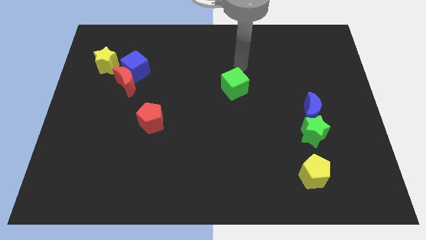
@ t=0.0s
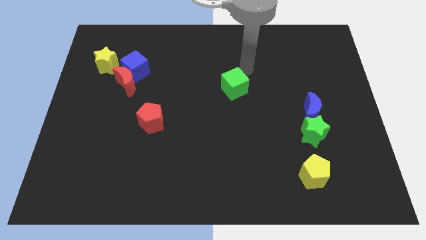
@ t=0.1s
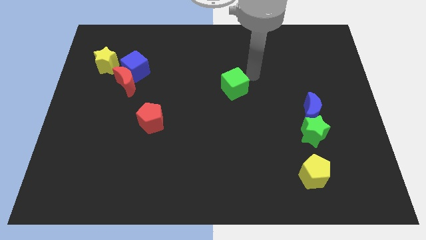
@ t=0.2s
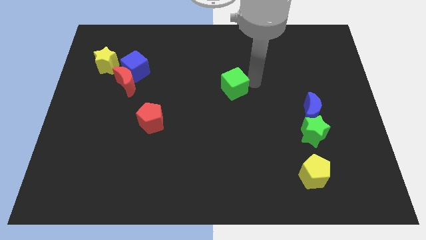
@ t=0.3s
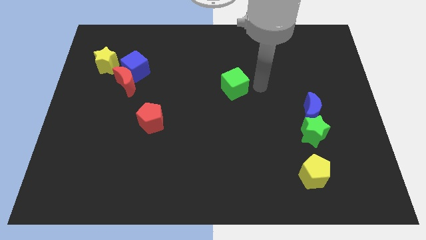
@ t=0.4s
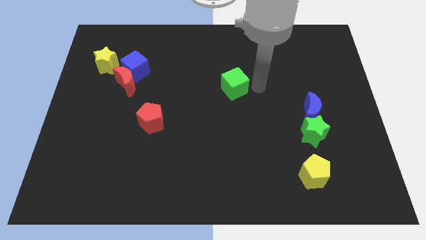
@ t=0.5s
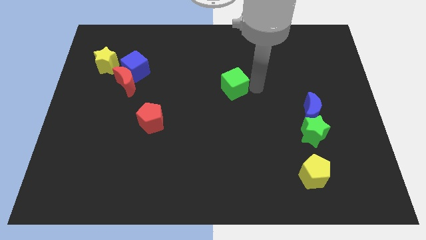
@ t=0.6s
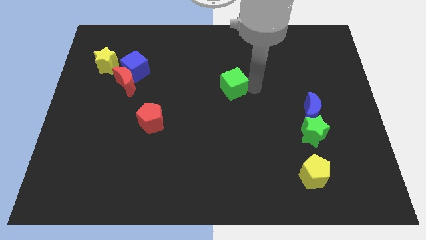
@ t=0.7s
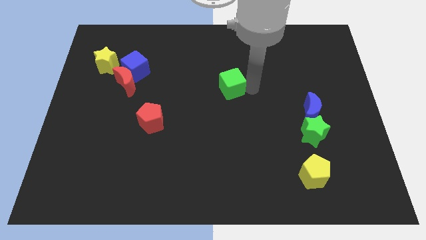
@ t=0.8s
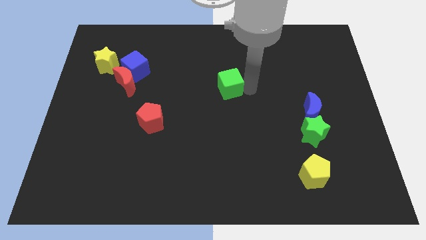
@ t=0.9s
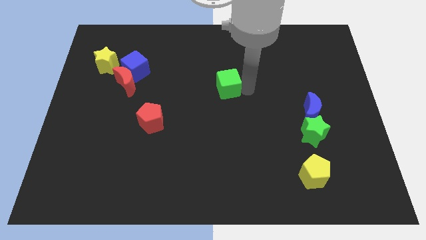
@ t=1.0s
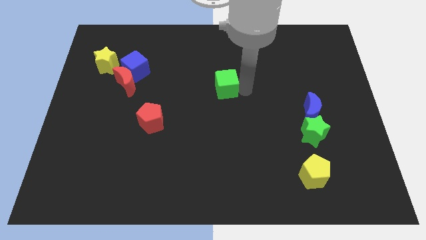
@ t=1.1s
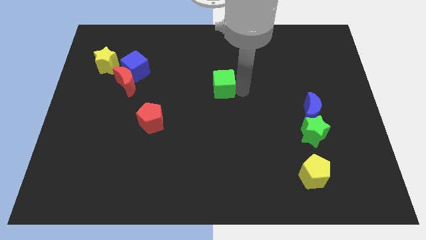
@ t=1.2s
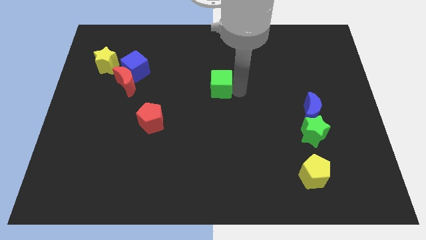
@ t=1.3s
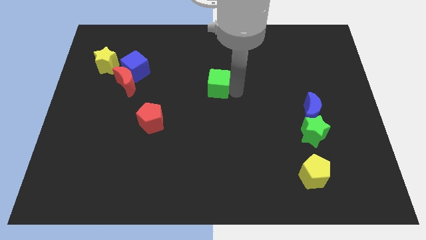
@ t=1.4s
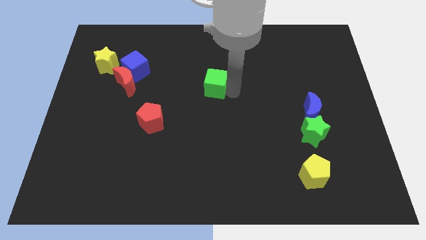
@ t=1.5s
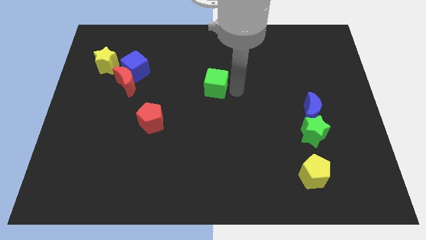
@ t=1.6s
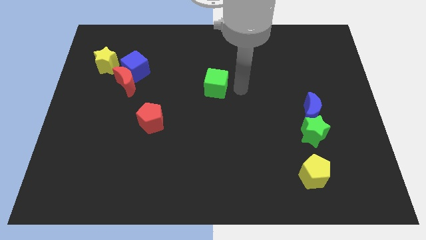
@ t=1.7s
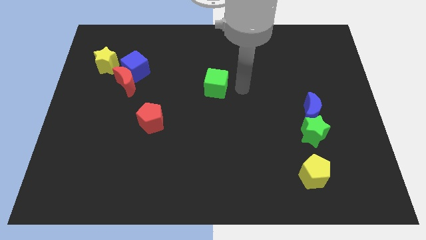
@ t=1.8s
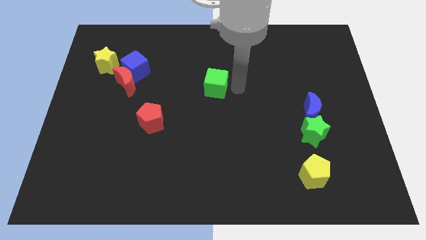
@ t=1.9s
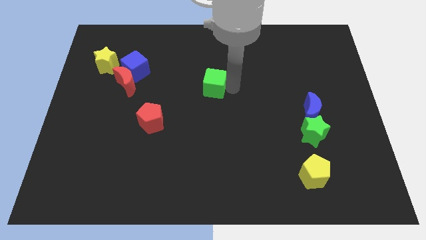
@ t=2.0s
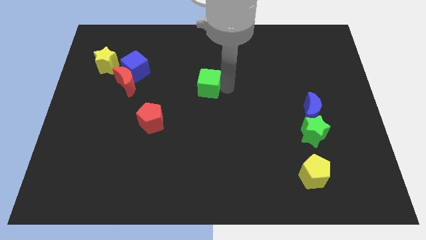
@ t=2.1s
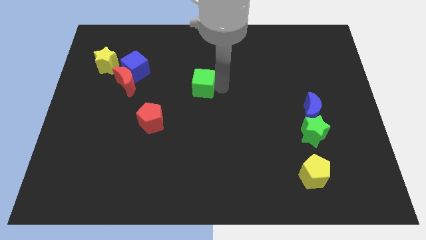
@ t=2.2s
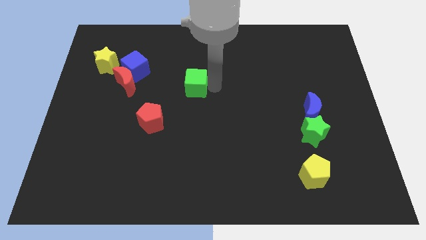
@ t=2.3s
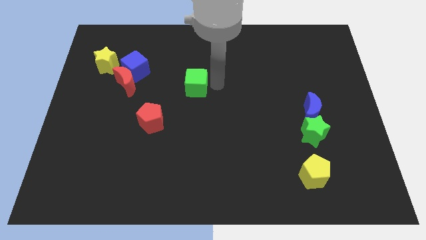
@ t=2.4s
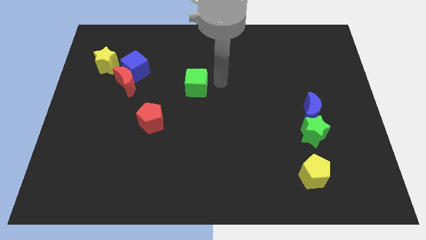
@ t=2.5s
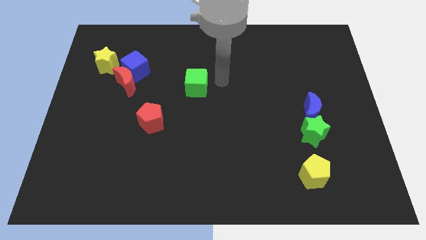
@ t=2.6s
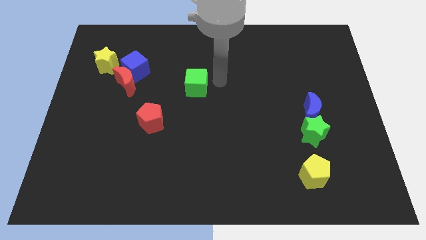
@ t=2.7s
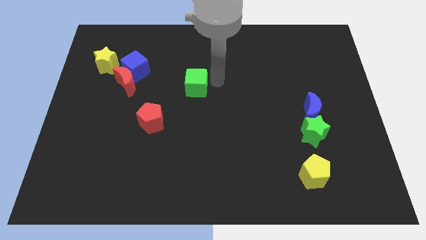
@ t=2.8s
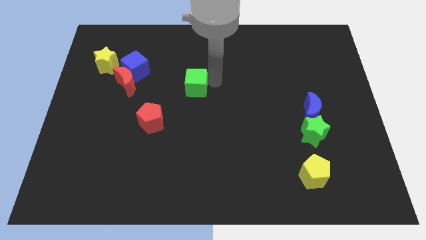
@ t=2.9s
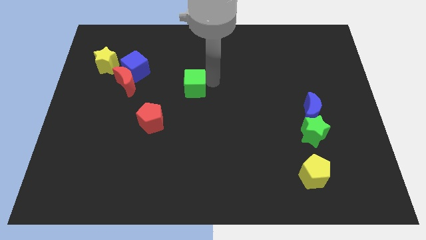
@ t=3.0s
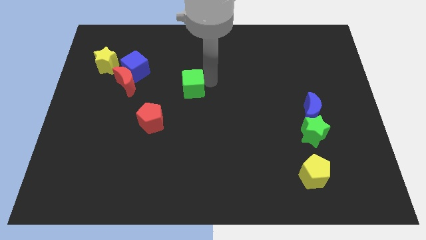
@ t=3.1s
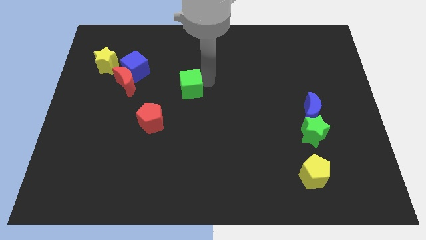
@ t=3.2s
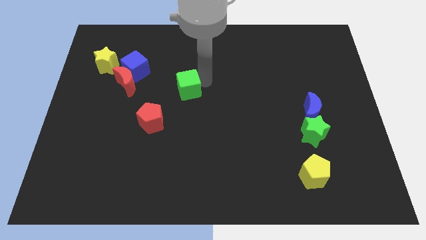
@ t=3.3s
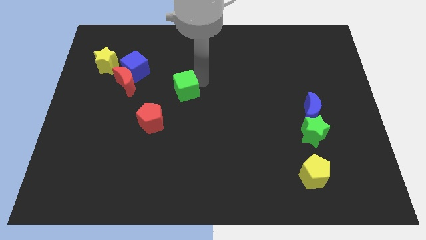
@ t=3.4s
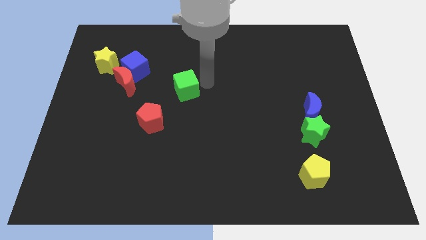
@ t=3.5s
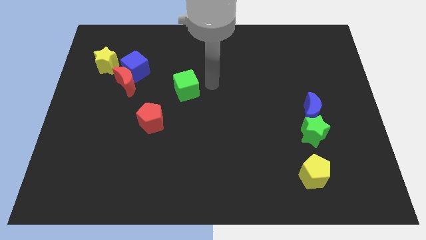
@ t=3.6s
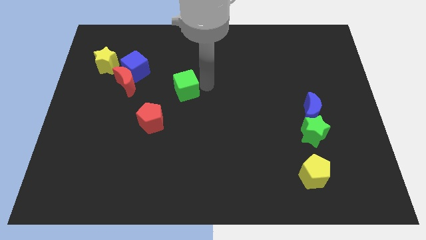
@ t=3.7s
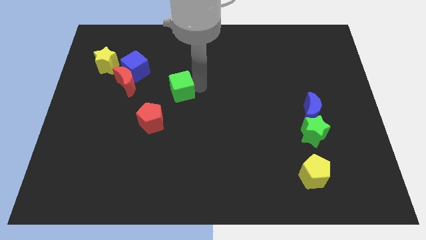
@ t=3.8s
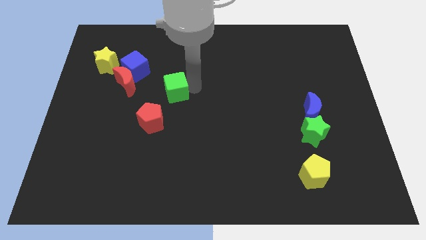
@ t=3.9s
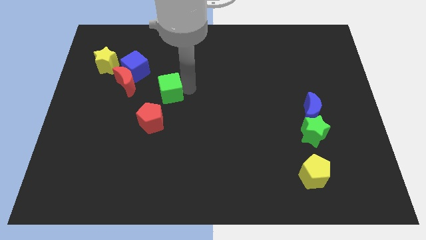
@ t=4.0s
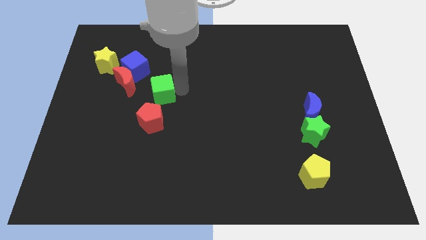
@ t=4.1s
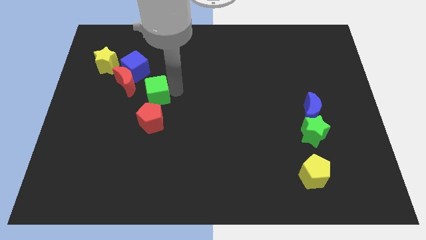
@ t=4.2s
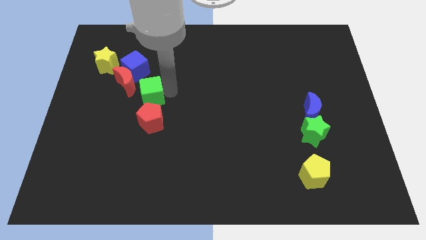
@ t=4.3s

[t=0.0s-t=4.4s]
slide the green cube left

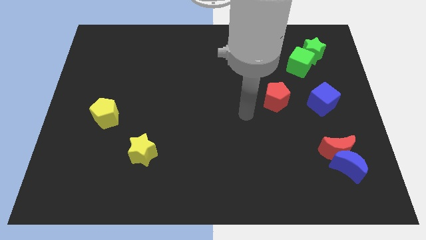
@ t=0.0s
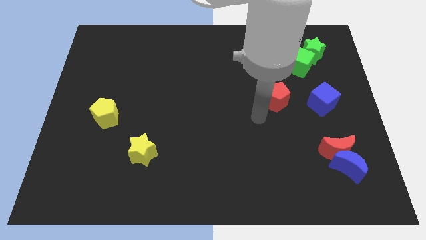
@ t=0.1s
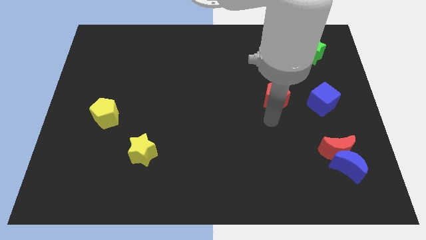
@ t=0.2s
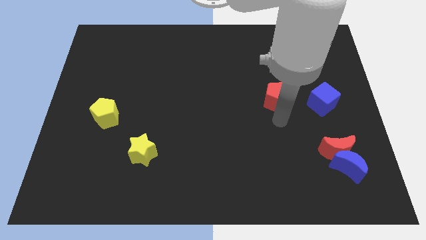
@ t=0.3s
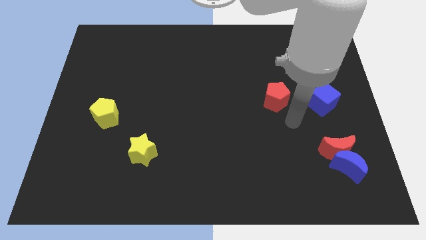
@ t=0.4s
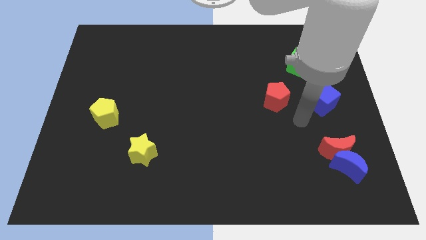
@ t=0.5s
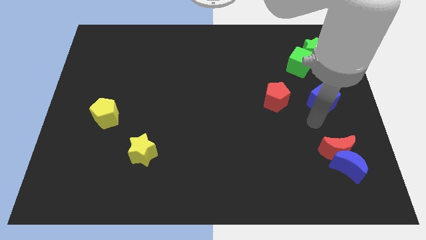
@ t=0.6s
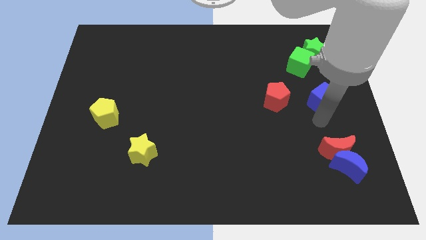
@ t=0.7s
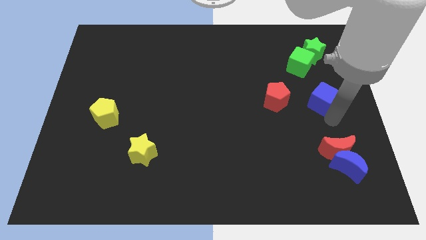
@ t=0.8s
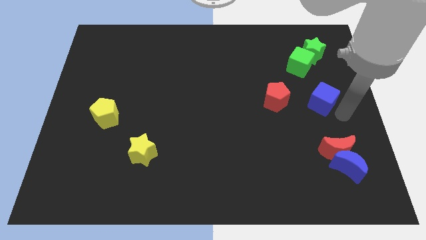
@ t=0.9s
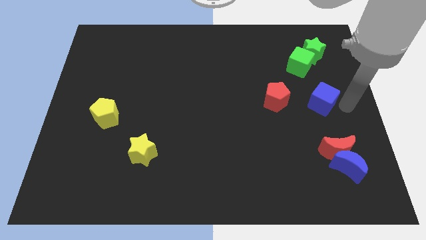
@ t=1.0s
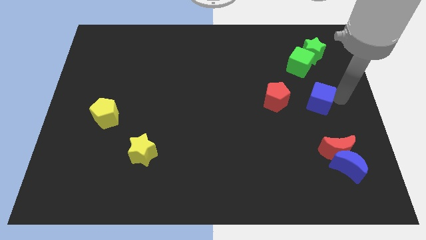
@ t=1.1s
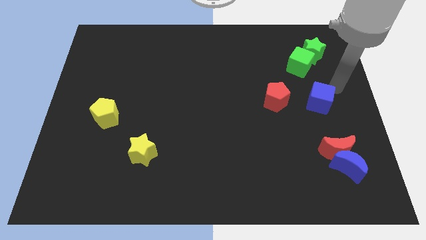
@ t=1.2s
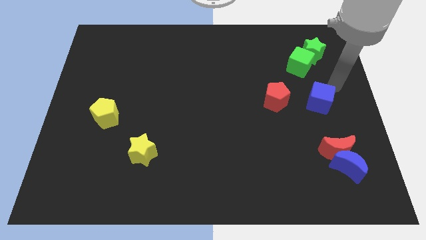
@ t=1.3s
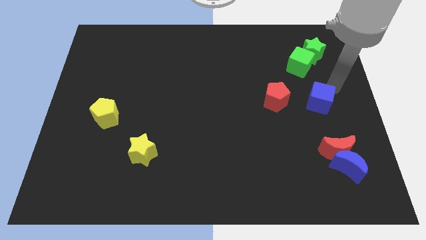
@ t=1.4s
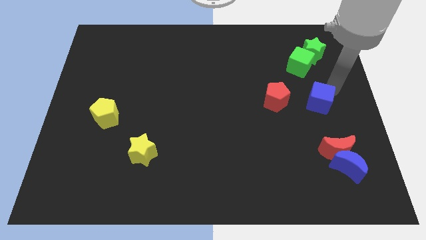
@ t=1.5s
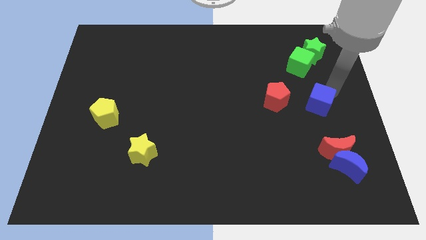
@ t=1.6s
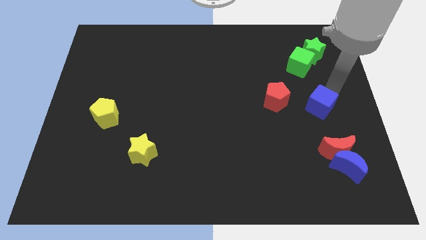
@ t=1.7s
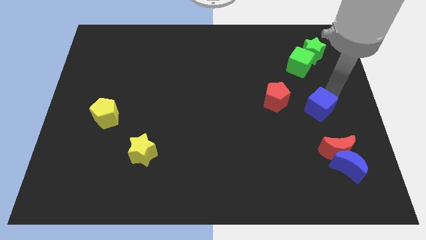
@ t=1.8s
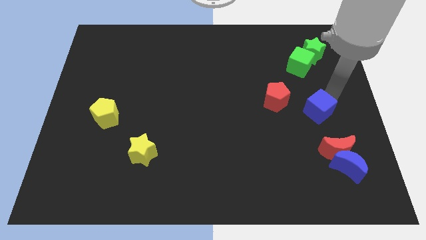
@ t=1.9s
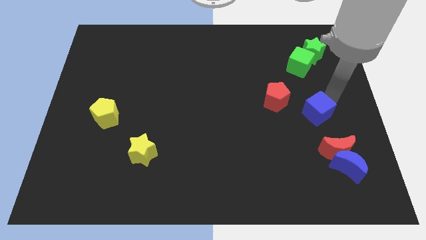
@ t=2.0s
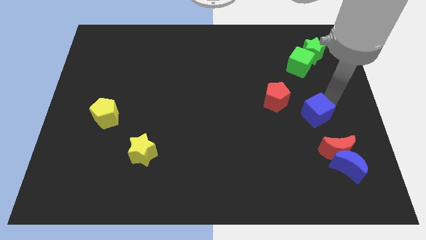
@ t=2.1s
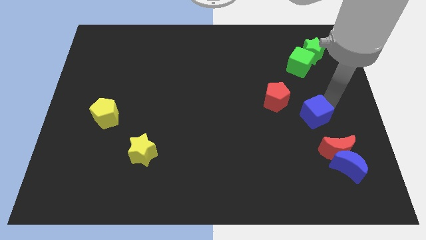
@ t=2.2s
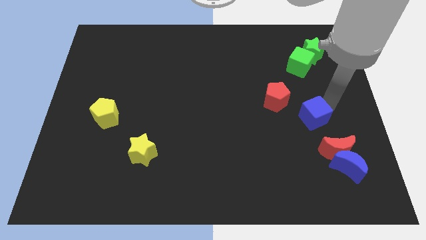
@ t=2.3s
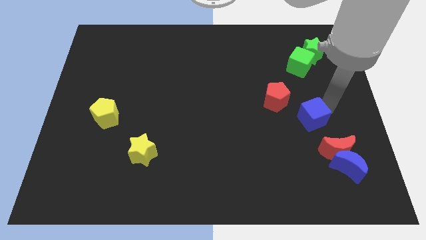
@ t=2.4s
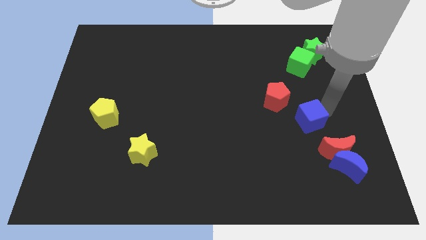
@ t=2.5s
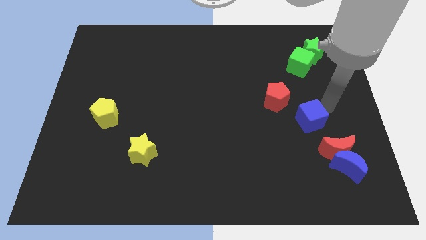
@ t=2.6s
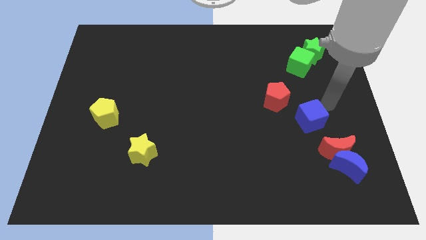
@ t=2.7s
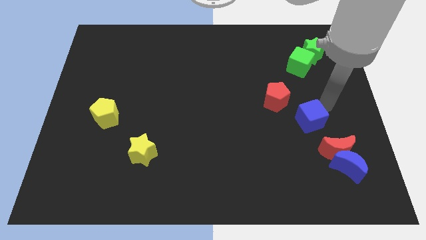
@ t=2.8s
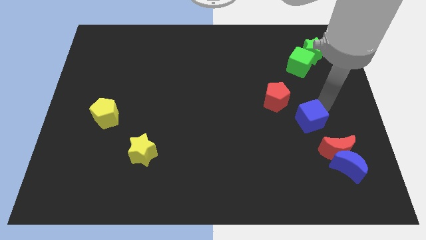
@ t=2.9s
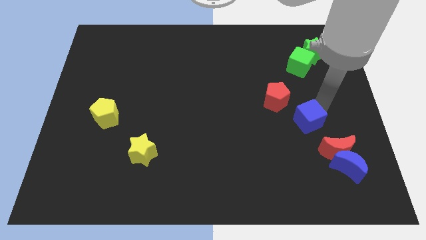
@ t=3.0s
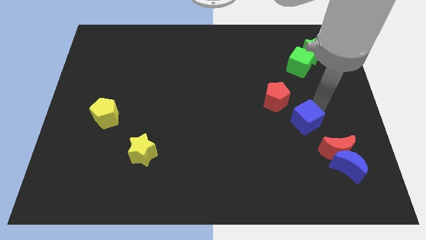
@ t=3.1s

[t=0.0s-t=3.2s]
slightly slide the blue cube down and to the left diagonally

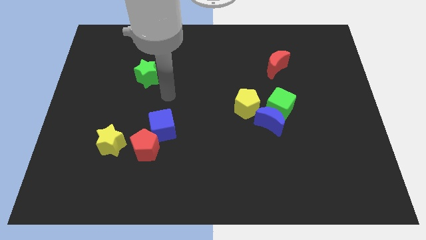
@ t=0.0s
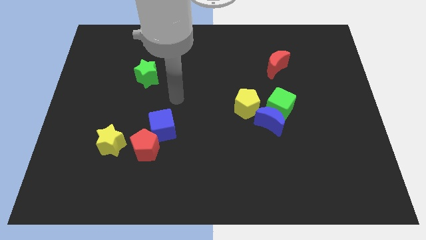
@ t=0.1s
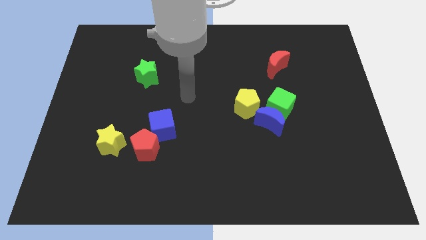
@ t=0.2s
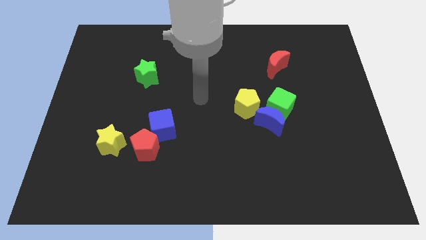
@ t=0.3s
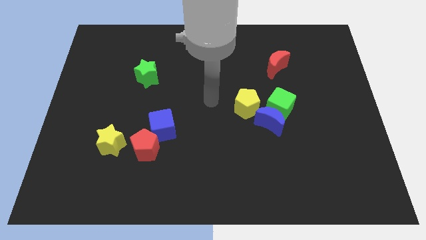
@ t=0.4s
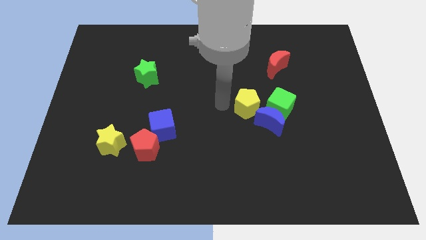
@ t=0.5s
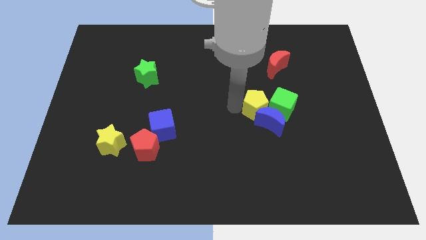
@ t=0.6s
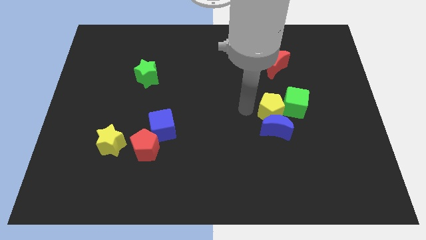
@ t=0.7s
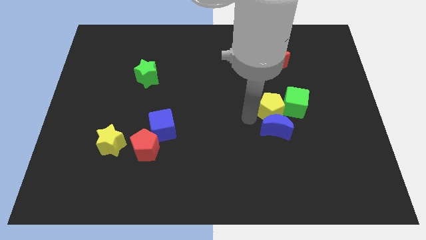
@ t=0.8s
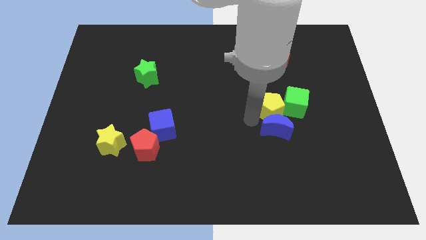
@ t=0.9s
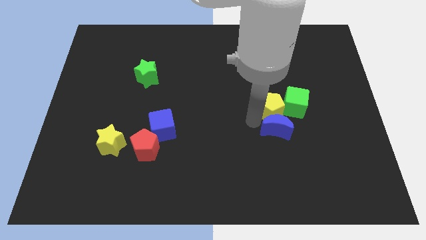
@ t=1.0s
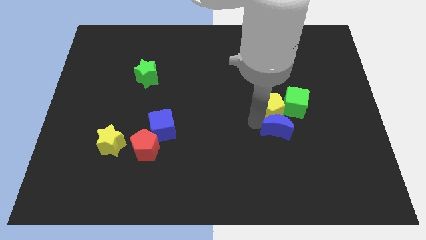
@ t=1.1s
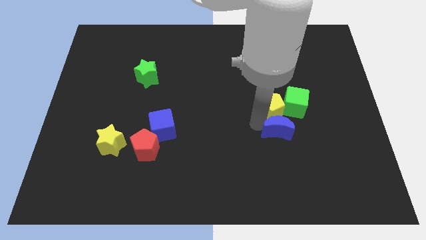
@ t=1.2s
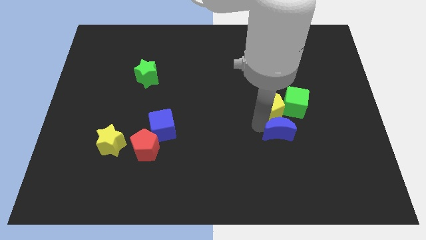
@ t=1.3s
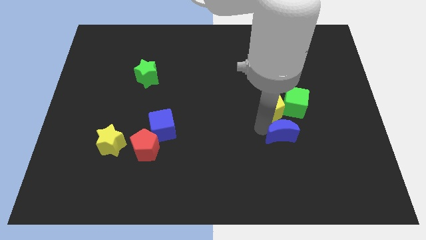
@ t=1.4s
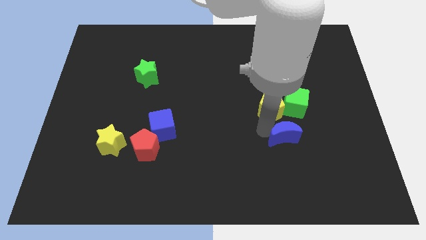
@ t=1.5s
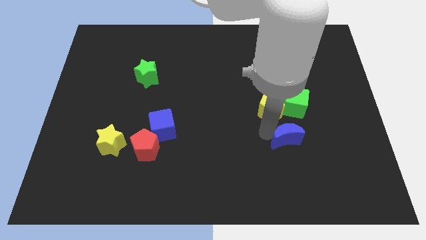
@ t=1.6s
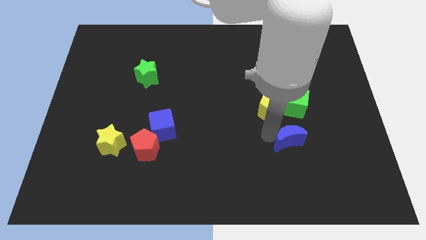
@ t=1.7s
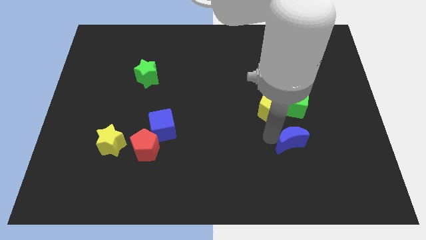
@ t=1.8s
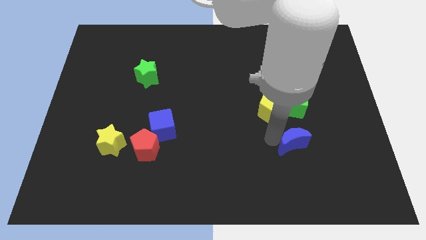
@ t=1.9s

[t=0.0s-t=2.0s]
slightly move the blue moon down and to the right diagonally
